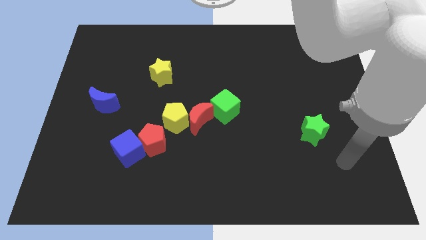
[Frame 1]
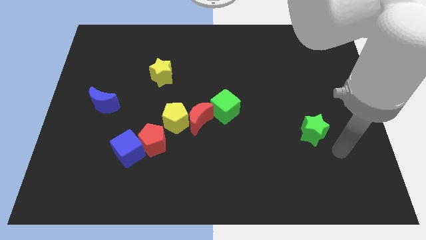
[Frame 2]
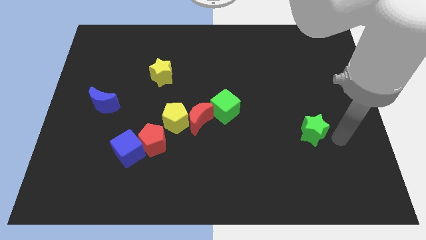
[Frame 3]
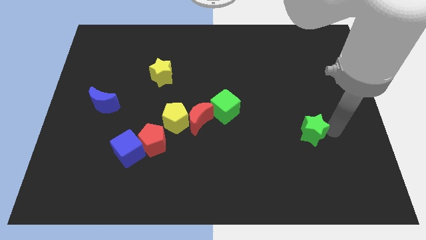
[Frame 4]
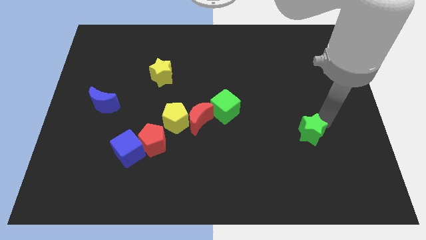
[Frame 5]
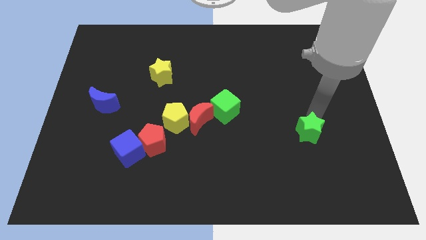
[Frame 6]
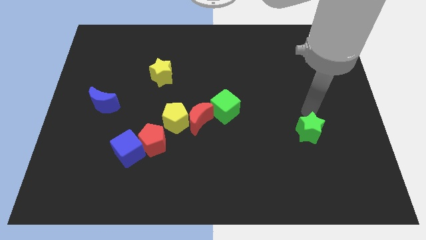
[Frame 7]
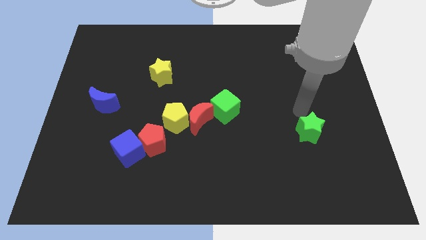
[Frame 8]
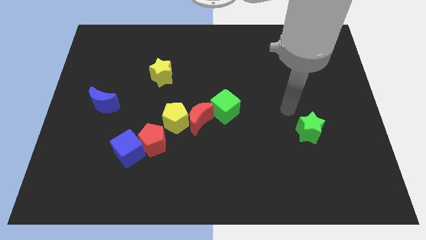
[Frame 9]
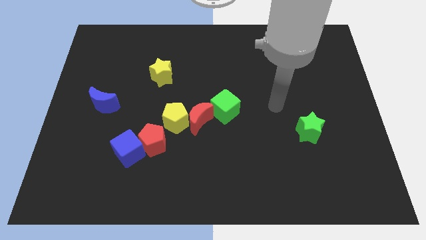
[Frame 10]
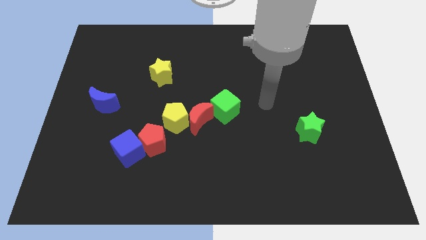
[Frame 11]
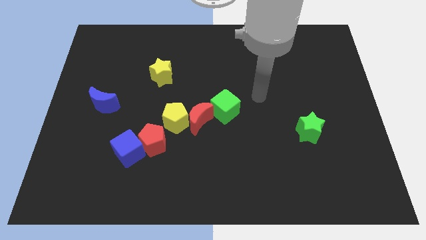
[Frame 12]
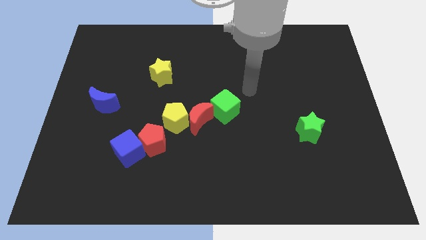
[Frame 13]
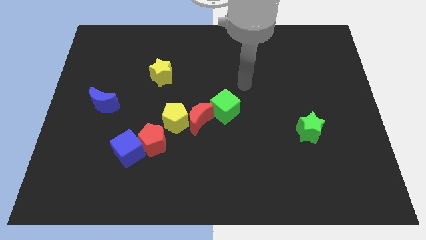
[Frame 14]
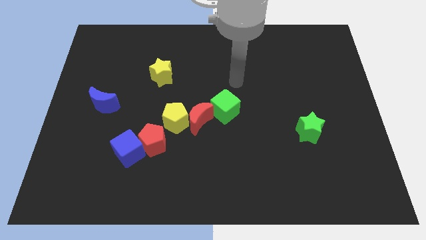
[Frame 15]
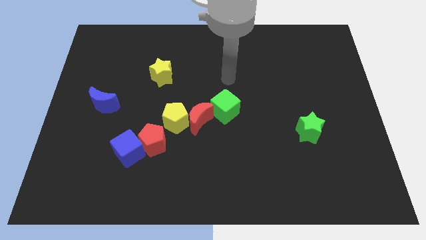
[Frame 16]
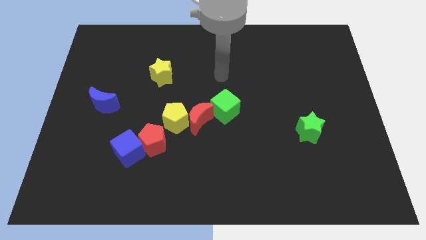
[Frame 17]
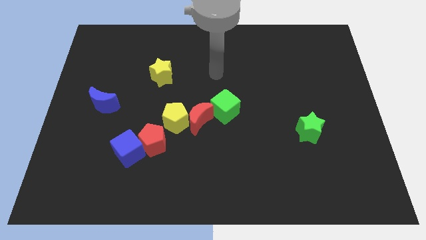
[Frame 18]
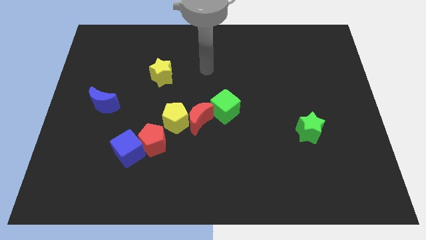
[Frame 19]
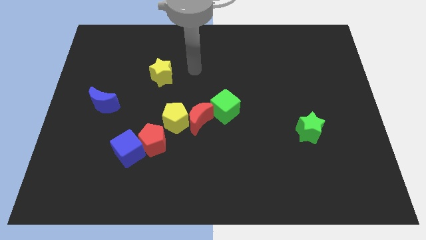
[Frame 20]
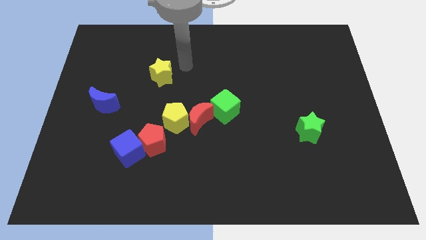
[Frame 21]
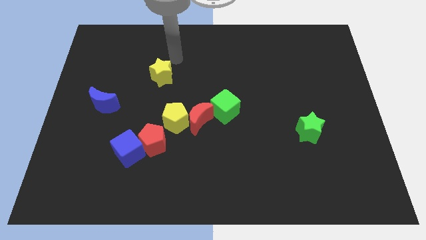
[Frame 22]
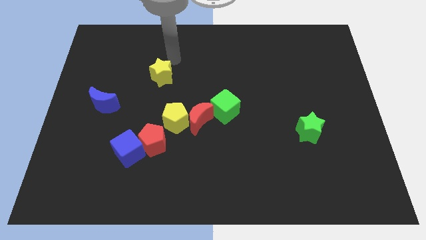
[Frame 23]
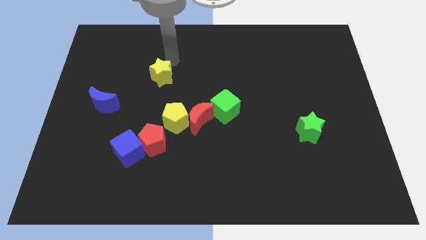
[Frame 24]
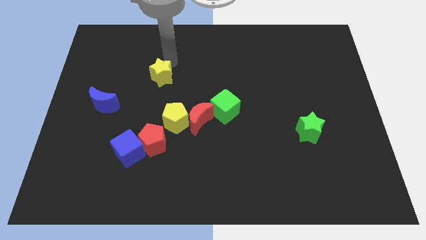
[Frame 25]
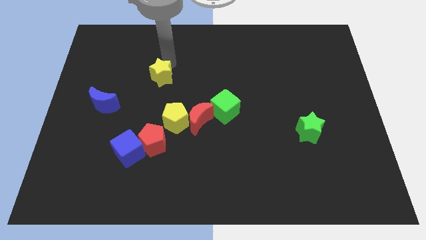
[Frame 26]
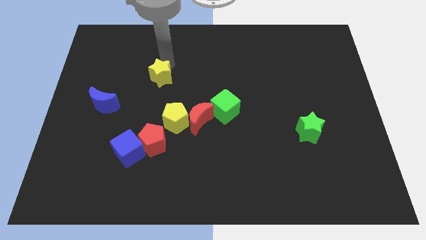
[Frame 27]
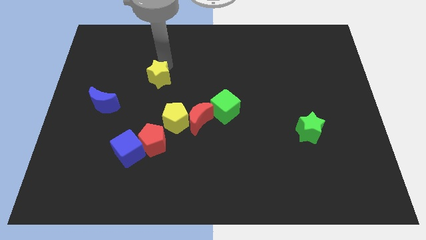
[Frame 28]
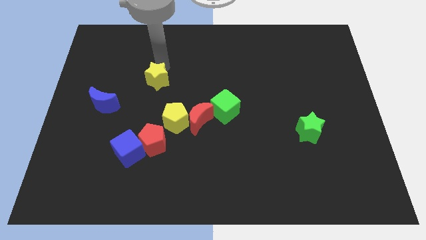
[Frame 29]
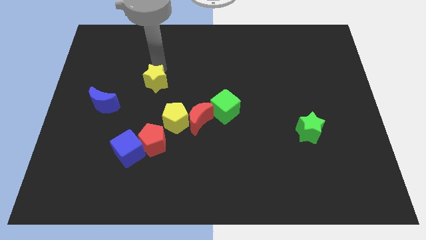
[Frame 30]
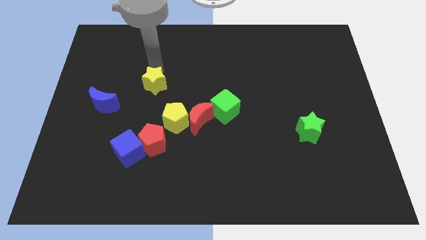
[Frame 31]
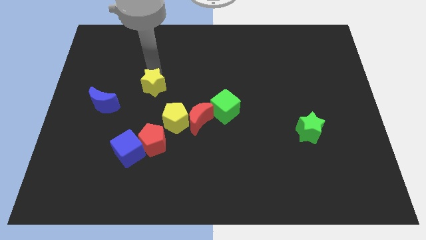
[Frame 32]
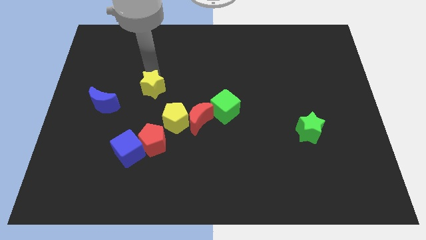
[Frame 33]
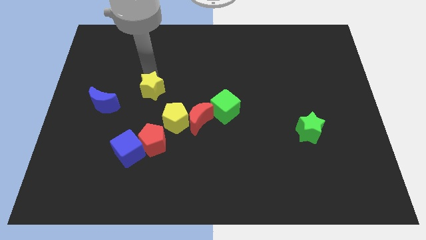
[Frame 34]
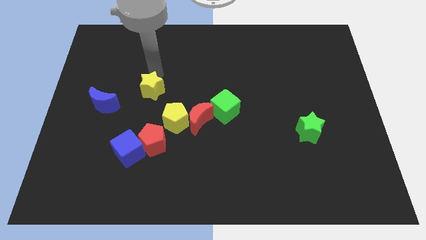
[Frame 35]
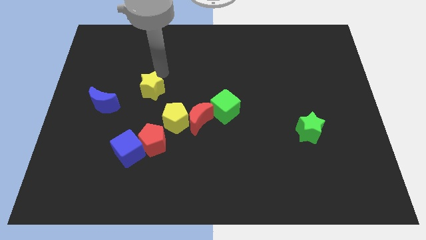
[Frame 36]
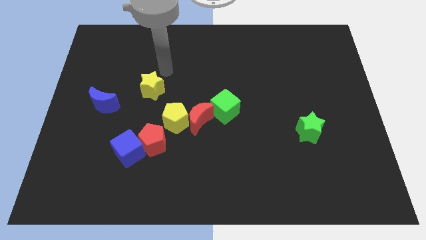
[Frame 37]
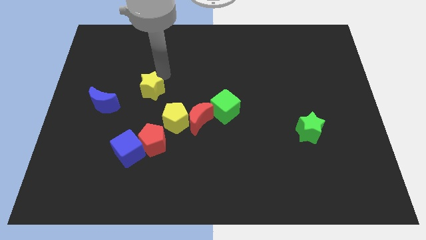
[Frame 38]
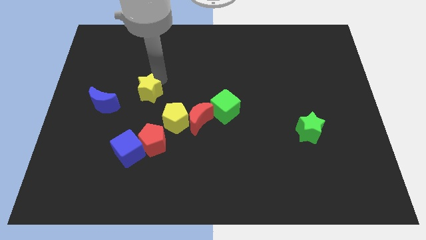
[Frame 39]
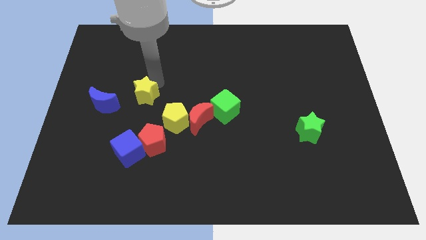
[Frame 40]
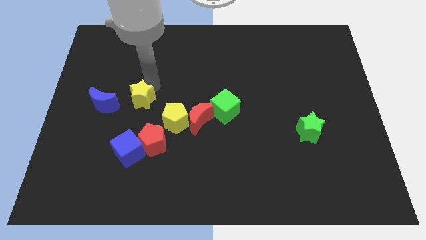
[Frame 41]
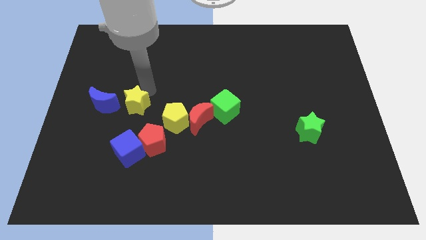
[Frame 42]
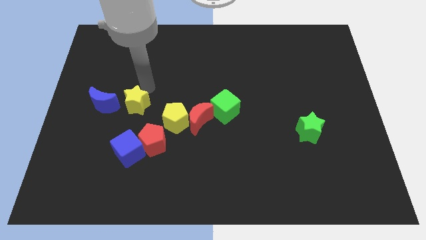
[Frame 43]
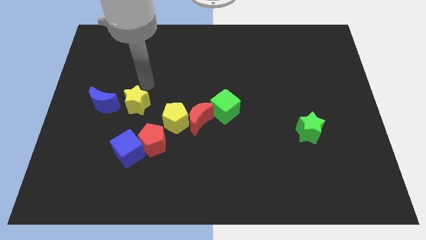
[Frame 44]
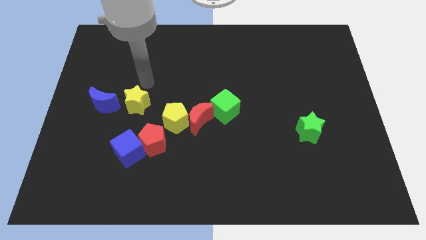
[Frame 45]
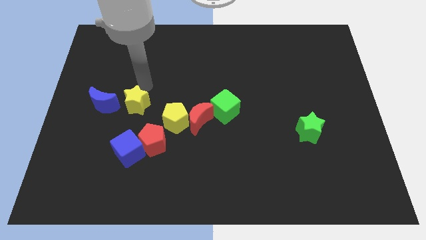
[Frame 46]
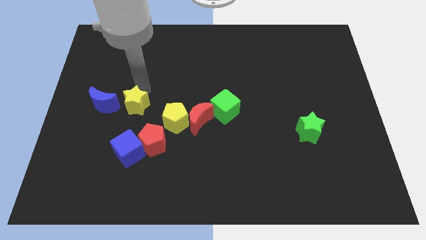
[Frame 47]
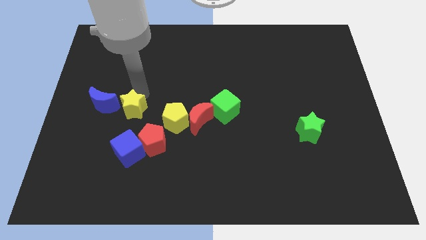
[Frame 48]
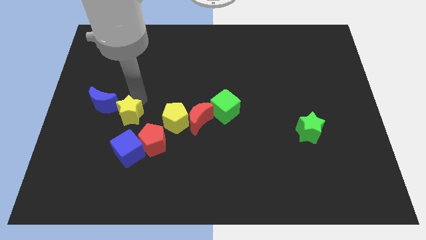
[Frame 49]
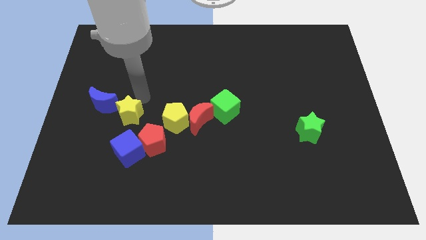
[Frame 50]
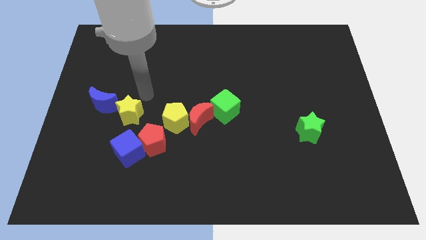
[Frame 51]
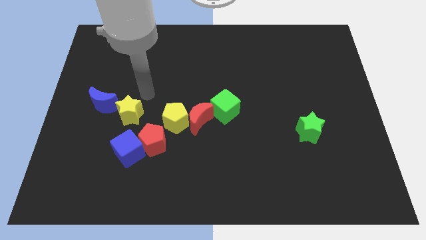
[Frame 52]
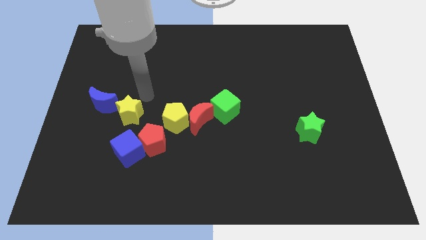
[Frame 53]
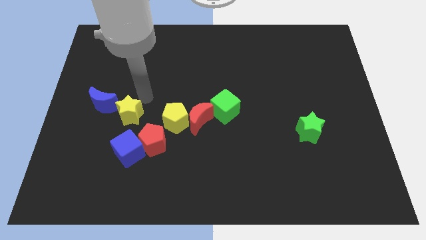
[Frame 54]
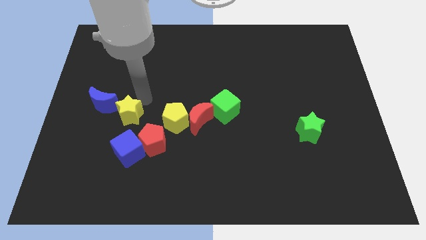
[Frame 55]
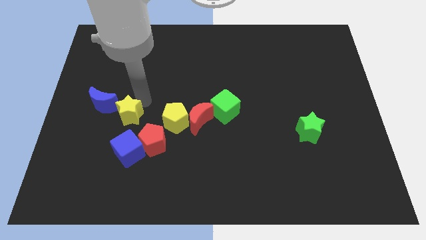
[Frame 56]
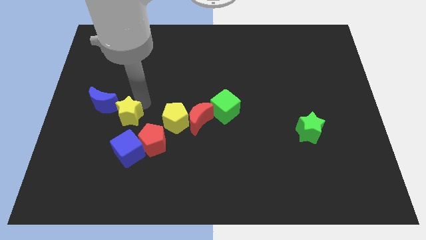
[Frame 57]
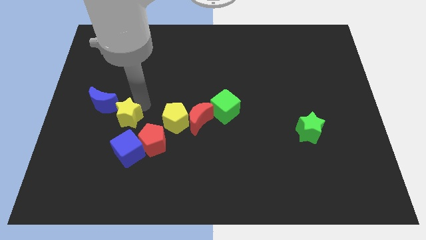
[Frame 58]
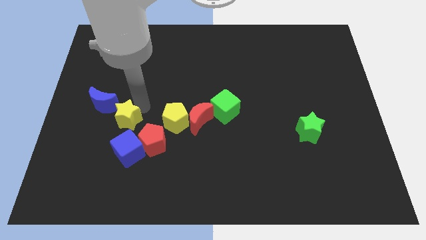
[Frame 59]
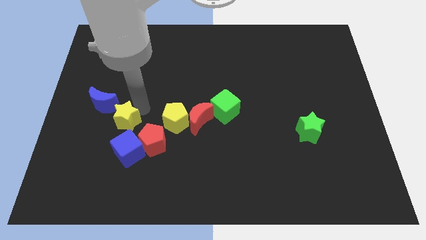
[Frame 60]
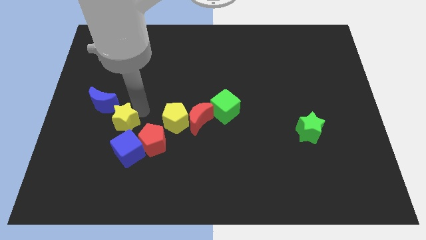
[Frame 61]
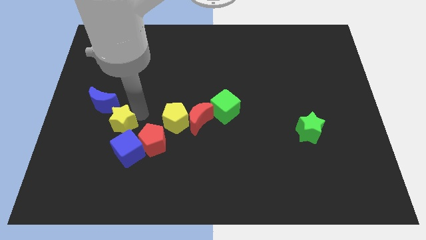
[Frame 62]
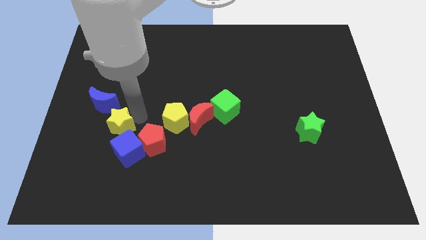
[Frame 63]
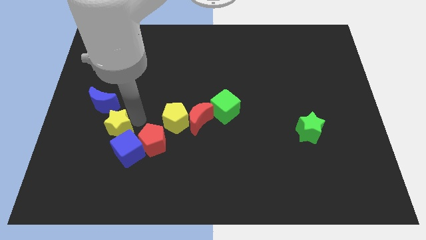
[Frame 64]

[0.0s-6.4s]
put the yellow star to the bottom of the blue moon

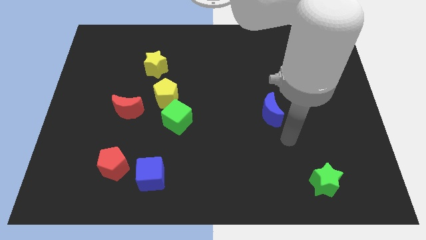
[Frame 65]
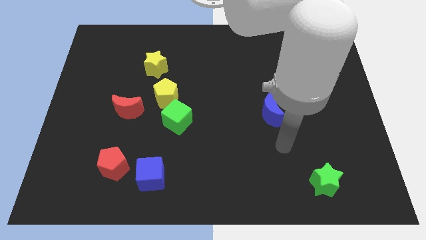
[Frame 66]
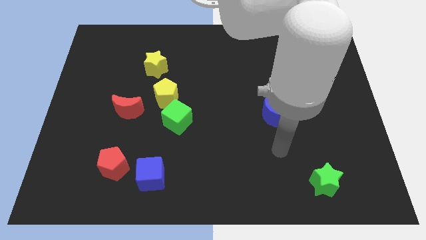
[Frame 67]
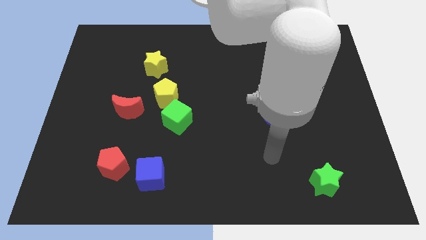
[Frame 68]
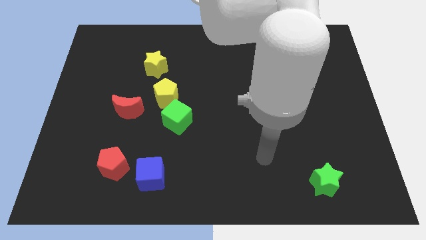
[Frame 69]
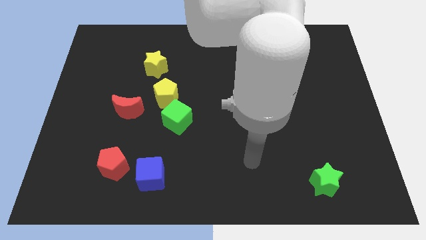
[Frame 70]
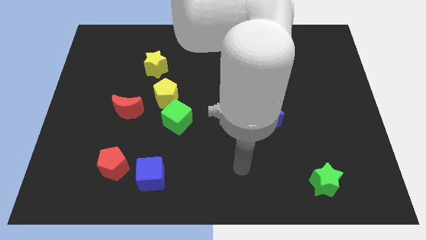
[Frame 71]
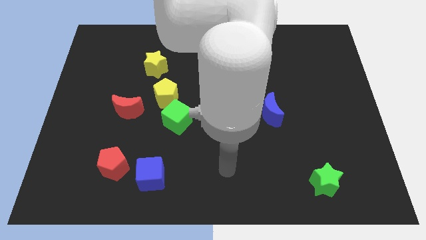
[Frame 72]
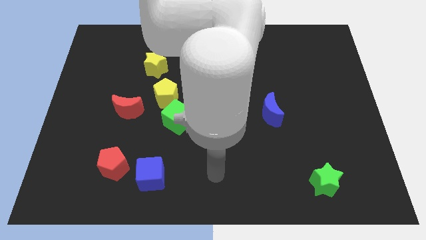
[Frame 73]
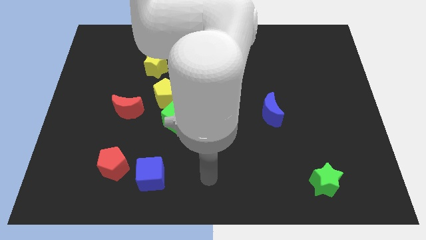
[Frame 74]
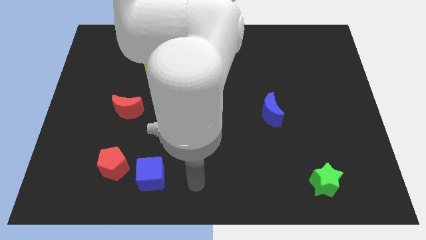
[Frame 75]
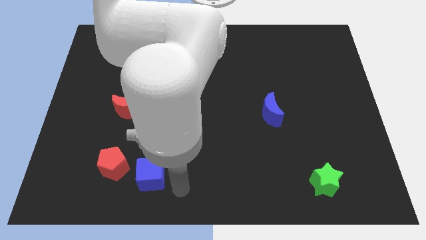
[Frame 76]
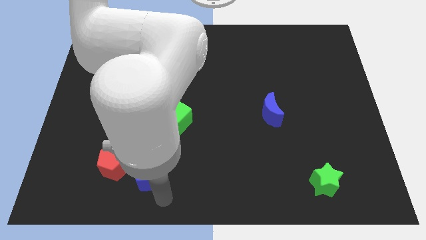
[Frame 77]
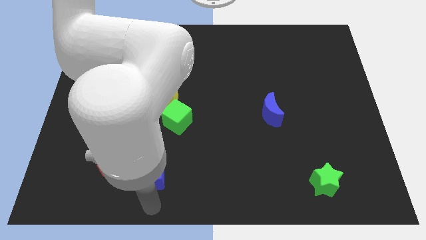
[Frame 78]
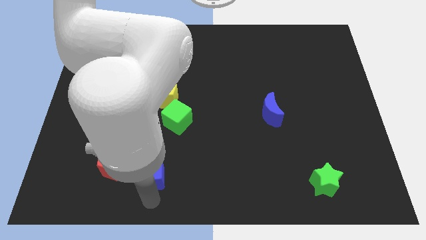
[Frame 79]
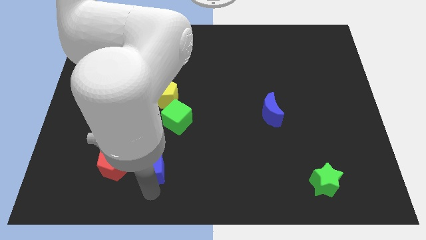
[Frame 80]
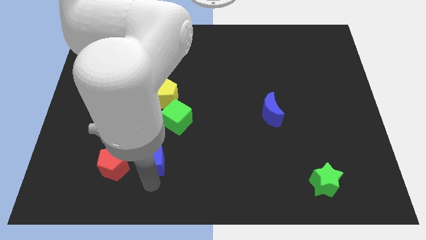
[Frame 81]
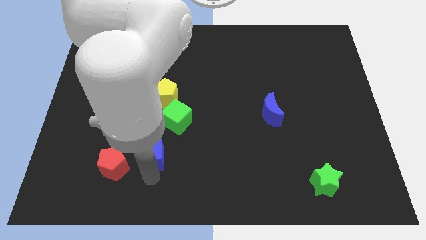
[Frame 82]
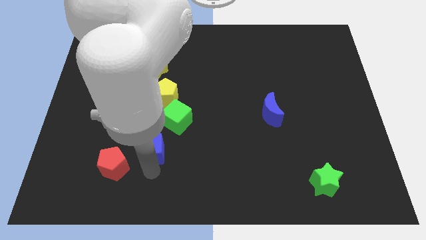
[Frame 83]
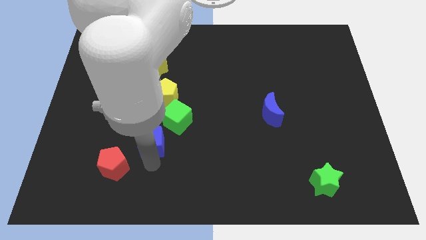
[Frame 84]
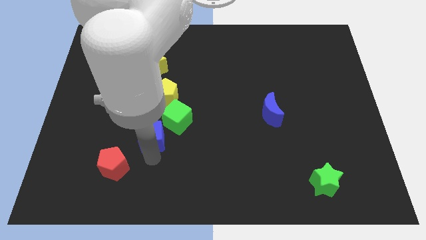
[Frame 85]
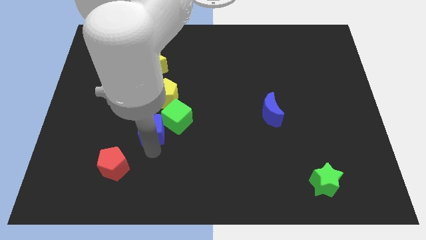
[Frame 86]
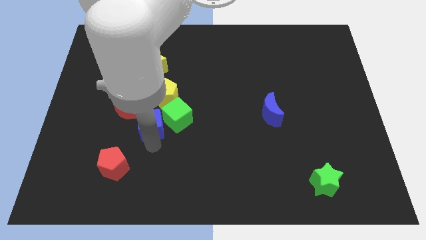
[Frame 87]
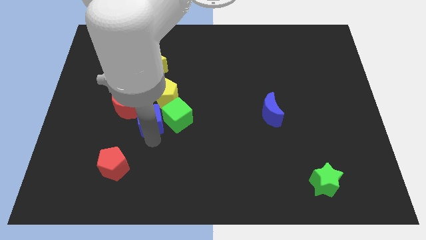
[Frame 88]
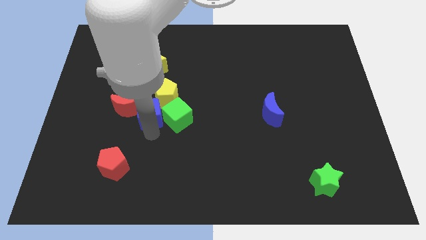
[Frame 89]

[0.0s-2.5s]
push the blue cube to the bottom side of the yellow star
